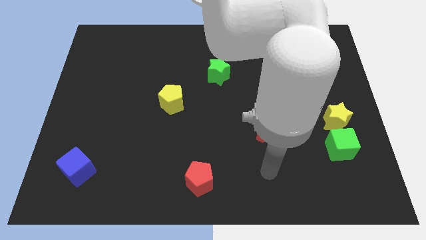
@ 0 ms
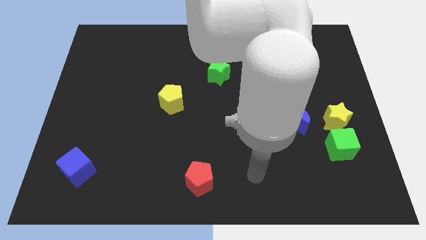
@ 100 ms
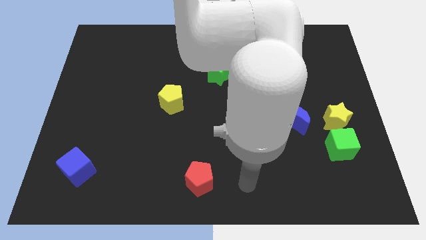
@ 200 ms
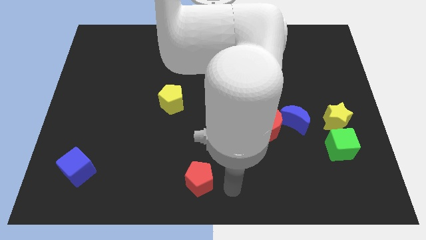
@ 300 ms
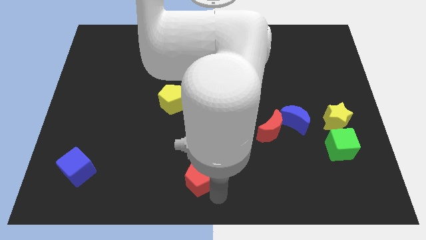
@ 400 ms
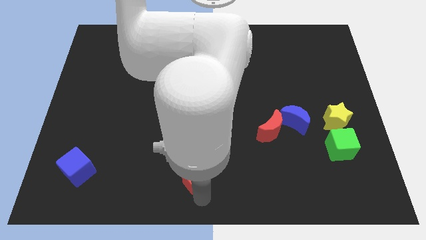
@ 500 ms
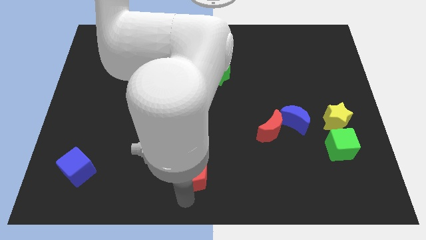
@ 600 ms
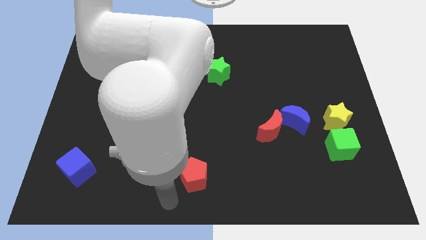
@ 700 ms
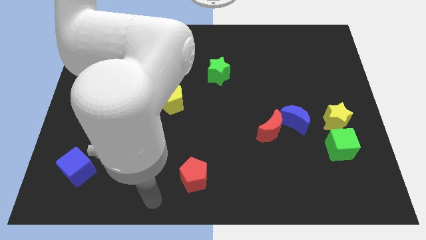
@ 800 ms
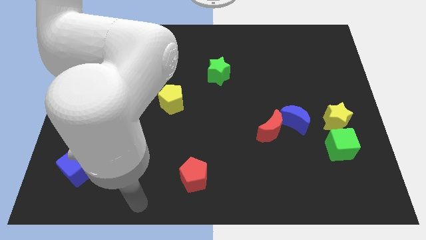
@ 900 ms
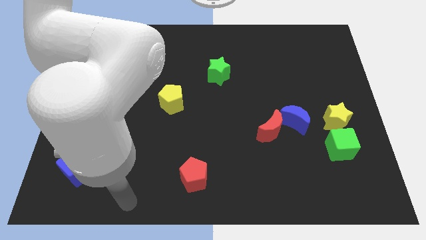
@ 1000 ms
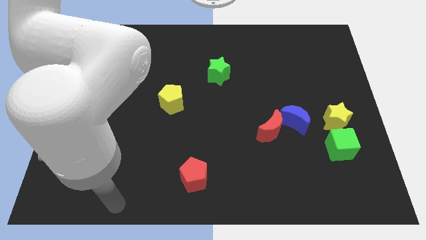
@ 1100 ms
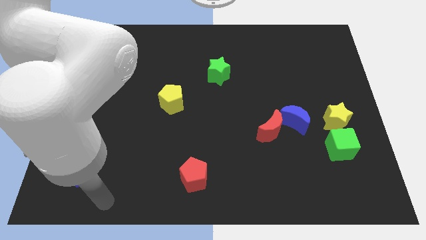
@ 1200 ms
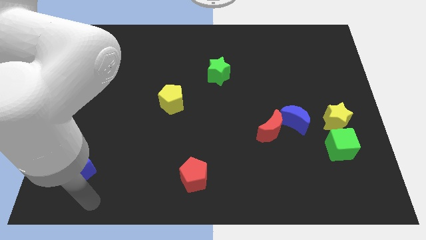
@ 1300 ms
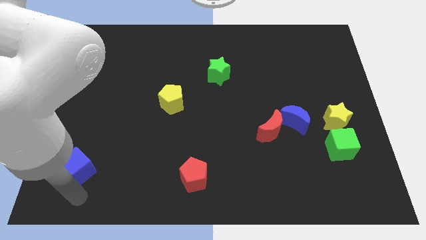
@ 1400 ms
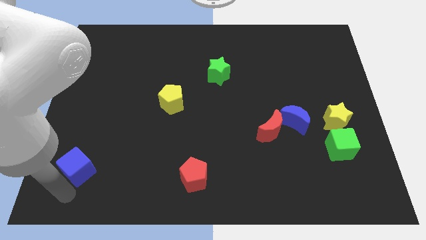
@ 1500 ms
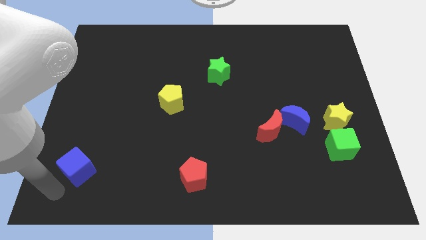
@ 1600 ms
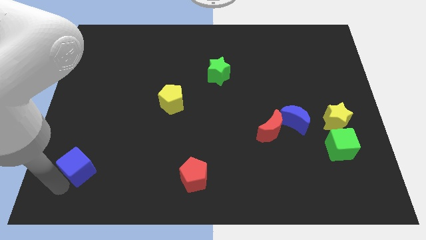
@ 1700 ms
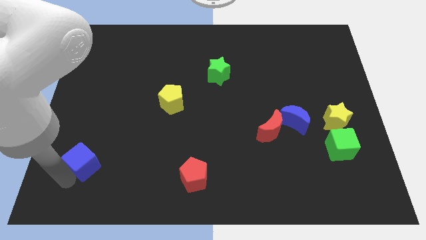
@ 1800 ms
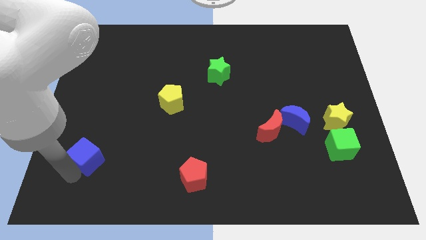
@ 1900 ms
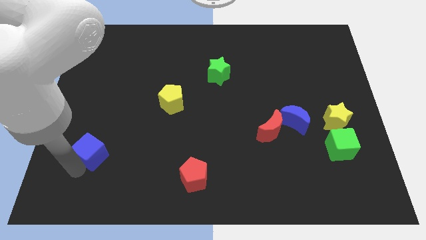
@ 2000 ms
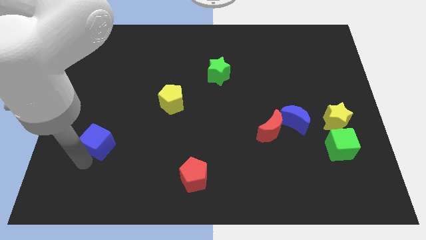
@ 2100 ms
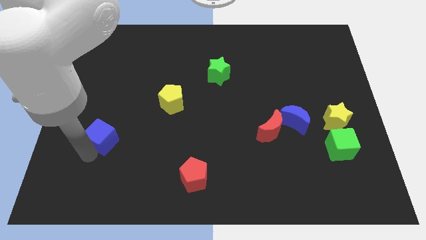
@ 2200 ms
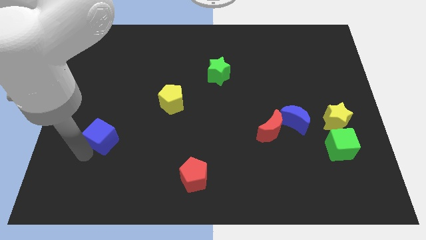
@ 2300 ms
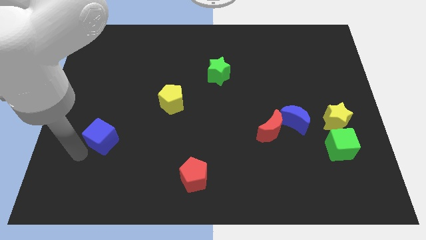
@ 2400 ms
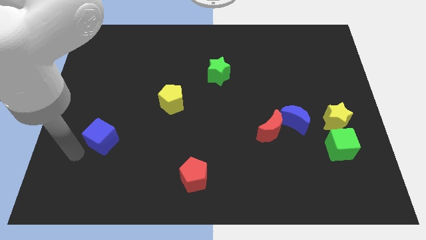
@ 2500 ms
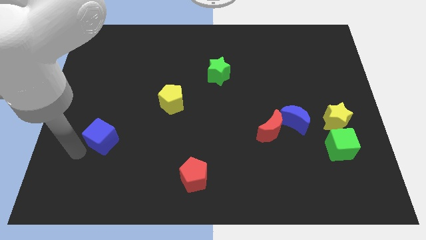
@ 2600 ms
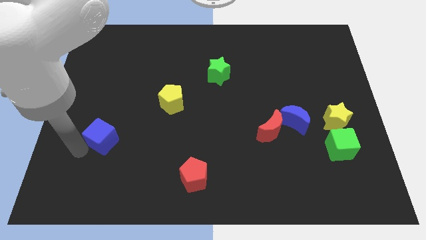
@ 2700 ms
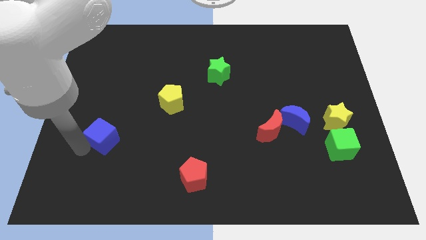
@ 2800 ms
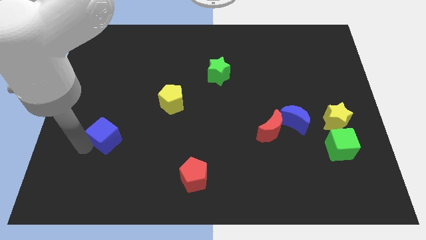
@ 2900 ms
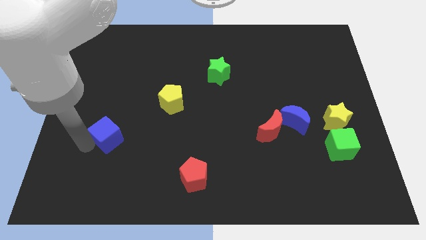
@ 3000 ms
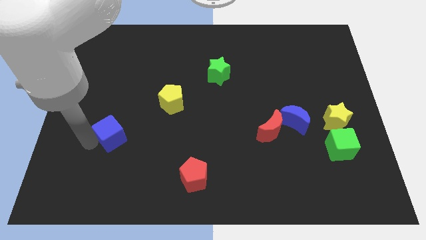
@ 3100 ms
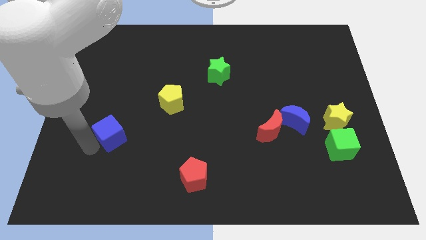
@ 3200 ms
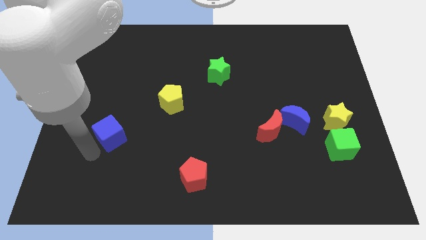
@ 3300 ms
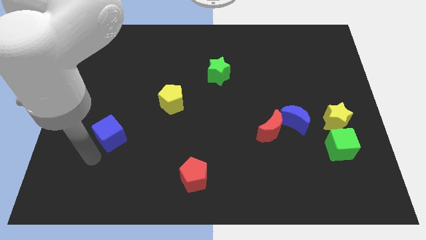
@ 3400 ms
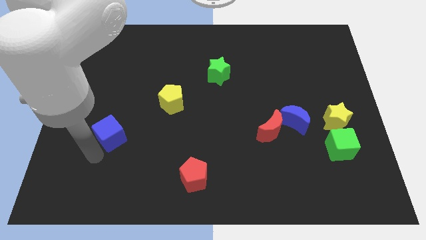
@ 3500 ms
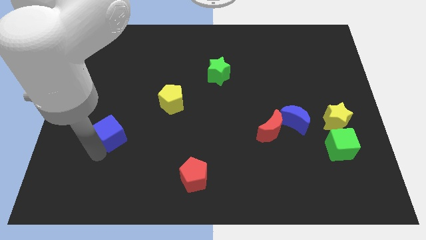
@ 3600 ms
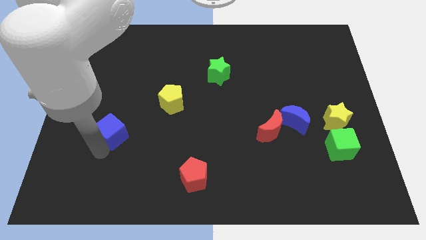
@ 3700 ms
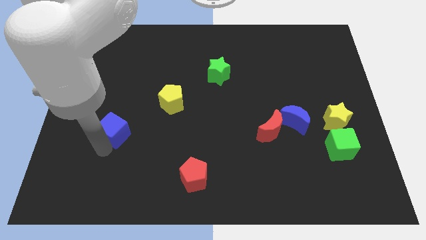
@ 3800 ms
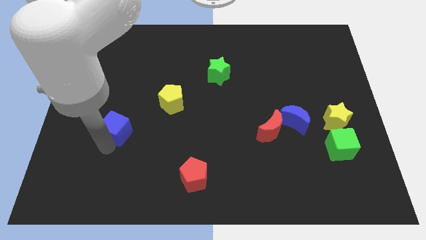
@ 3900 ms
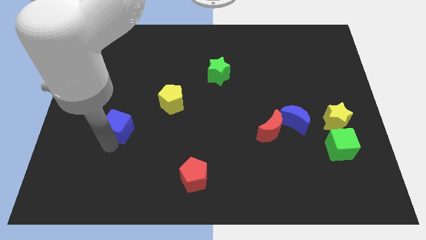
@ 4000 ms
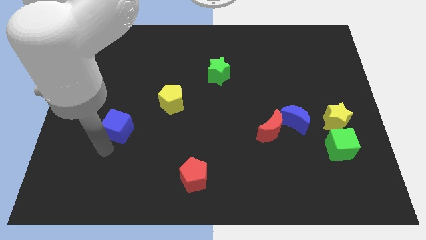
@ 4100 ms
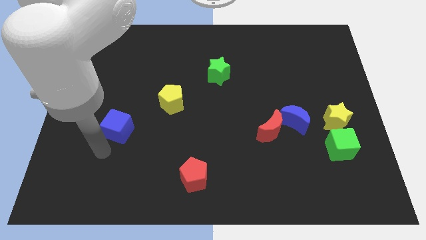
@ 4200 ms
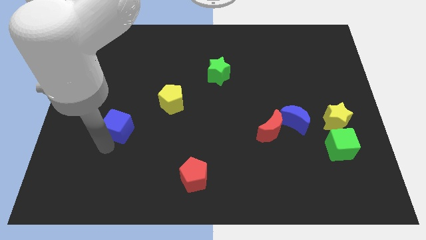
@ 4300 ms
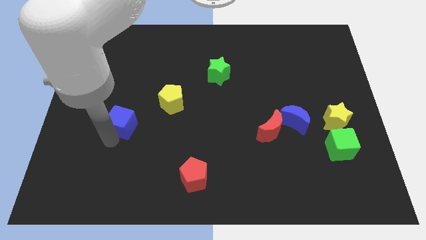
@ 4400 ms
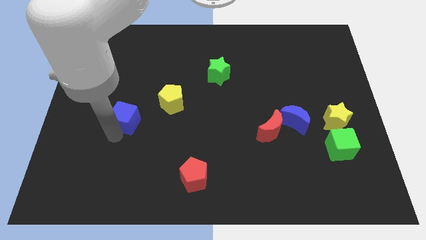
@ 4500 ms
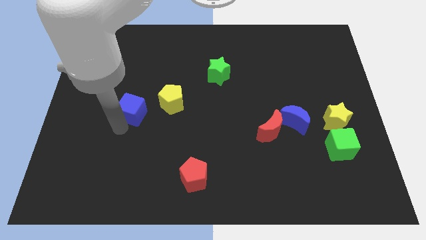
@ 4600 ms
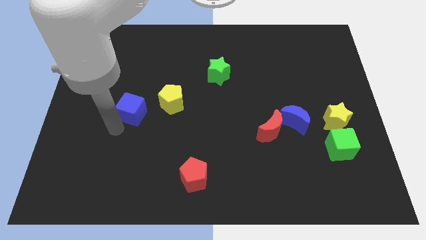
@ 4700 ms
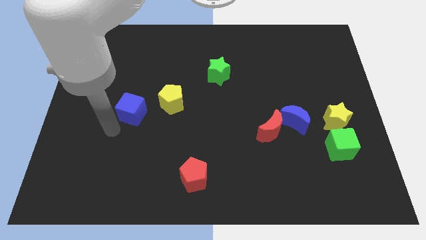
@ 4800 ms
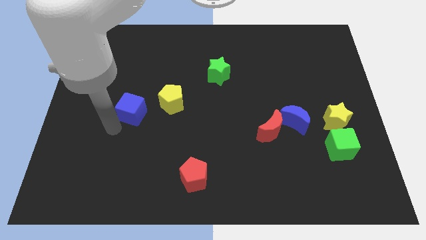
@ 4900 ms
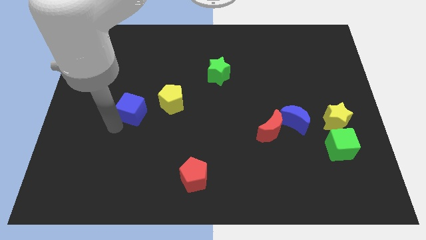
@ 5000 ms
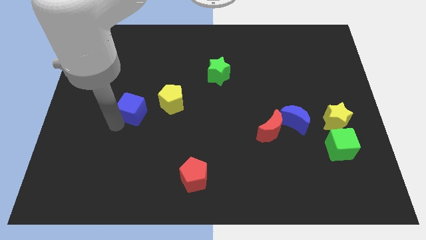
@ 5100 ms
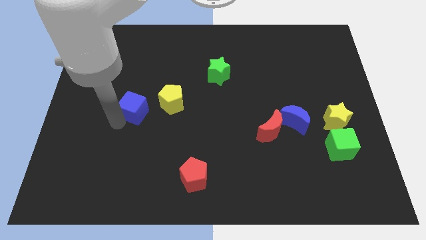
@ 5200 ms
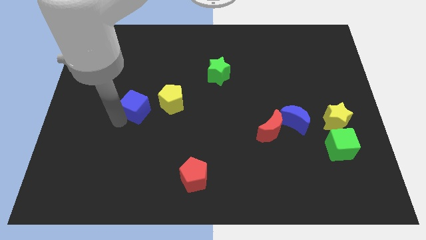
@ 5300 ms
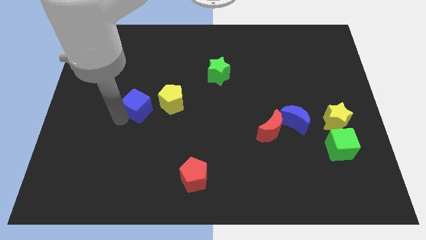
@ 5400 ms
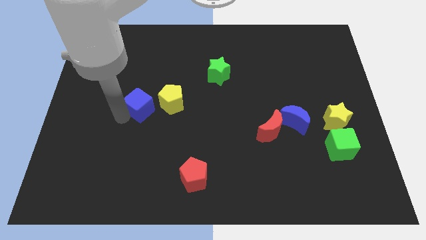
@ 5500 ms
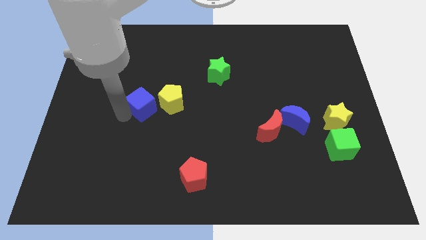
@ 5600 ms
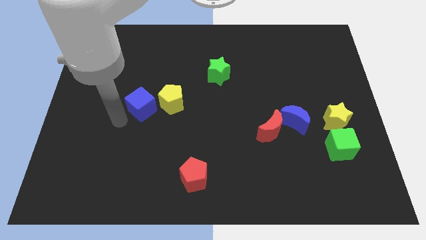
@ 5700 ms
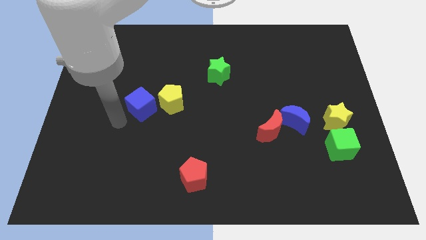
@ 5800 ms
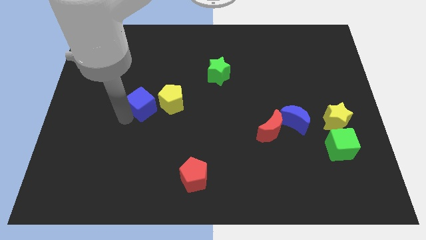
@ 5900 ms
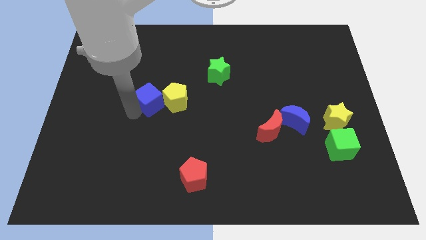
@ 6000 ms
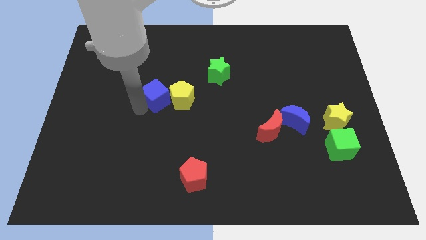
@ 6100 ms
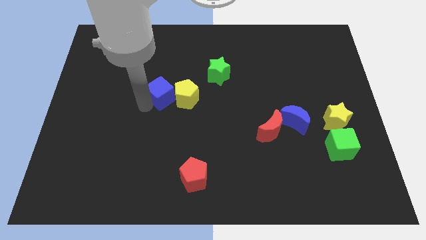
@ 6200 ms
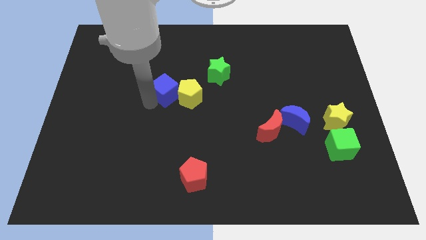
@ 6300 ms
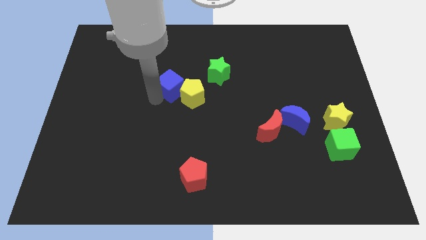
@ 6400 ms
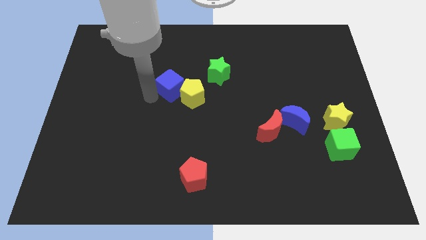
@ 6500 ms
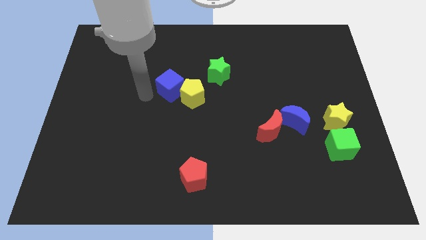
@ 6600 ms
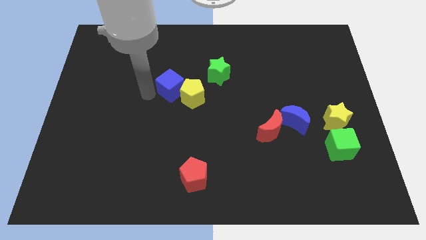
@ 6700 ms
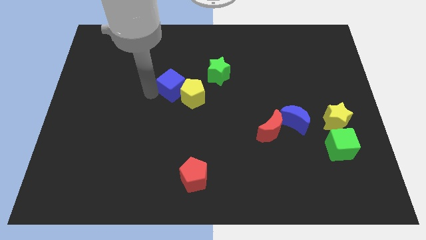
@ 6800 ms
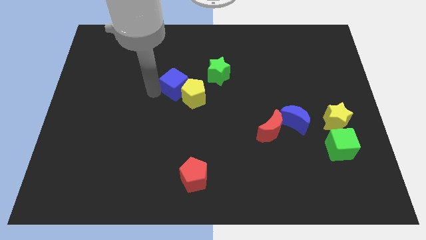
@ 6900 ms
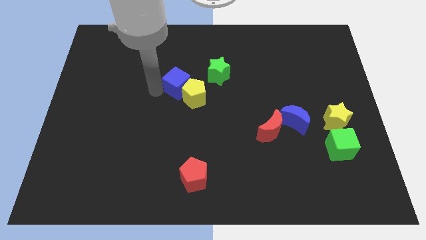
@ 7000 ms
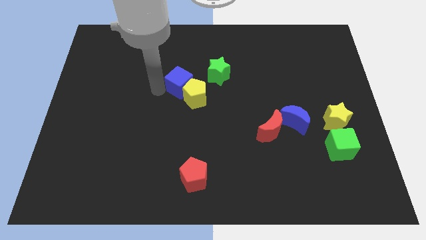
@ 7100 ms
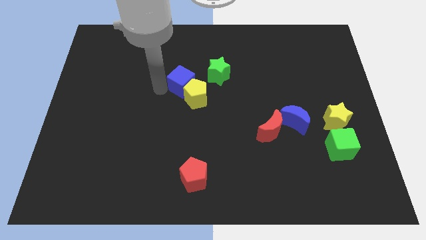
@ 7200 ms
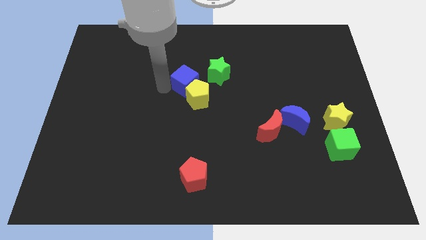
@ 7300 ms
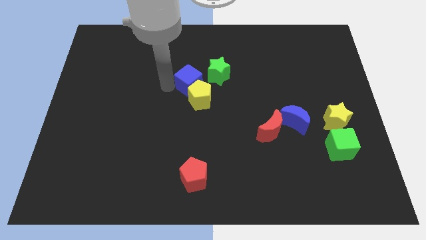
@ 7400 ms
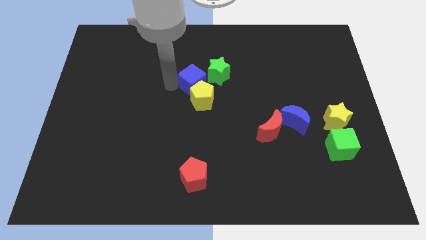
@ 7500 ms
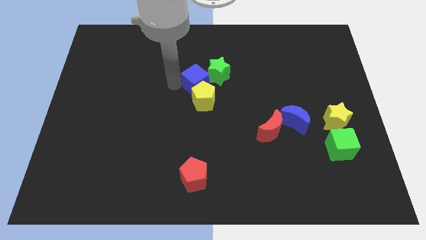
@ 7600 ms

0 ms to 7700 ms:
put the blue cube next to the green star
